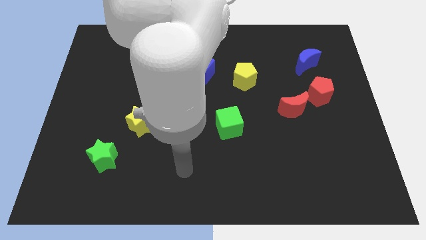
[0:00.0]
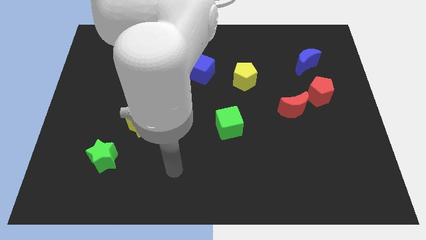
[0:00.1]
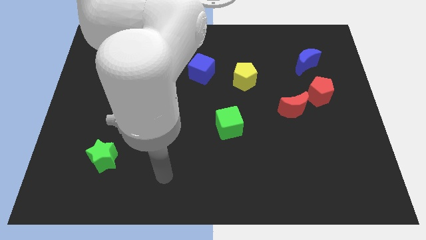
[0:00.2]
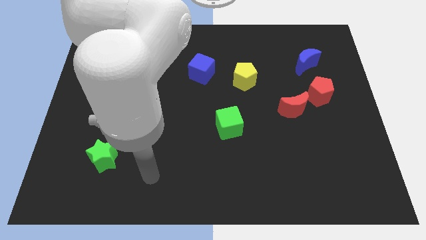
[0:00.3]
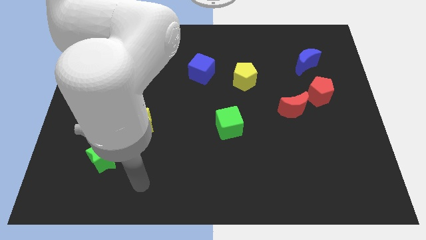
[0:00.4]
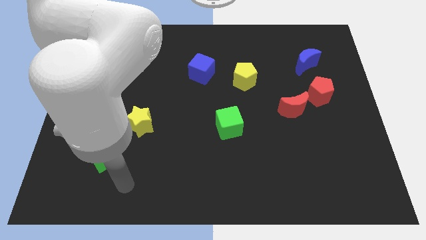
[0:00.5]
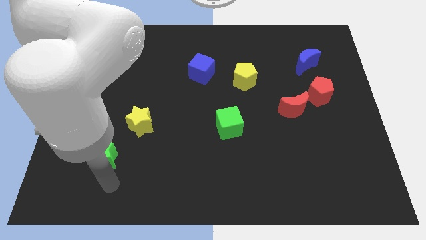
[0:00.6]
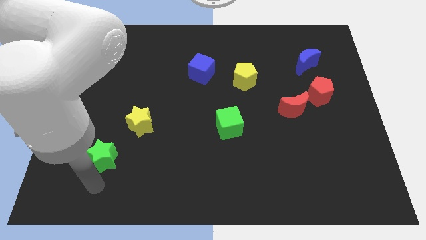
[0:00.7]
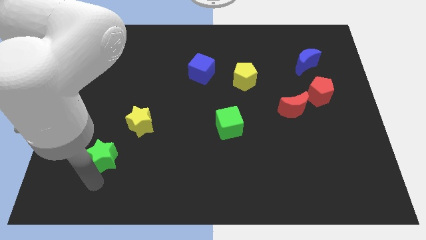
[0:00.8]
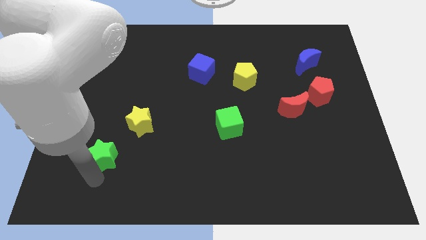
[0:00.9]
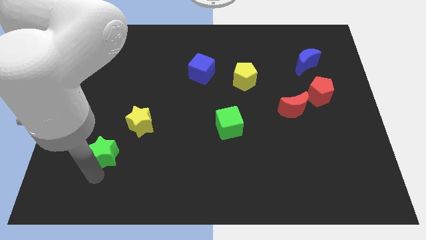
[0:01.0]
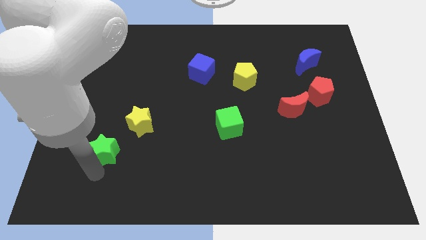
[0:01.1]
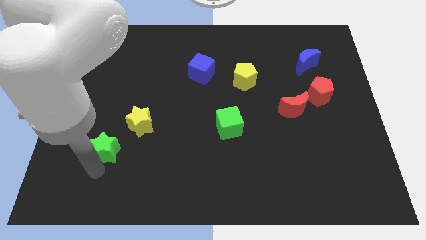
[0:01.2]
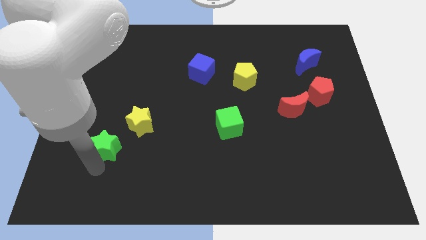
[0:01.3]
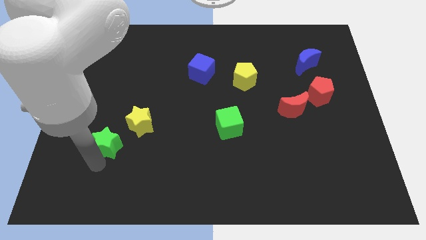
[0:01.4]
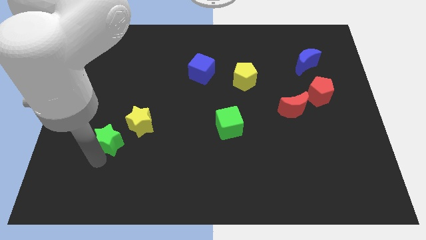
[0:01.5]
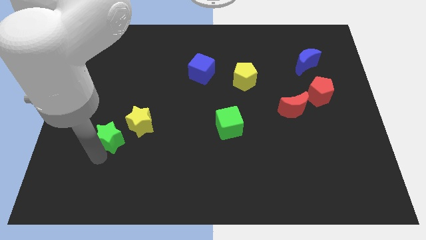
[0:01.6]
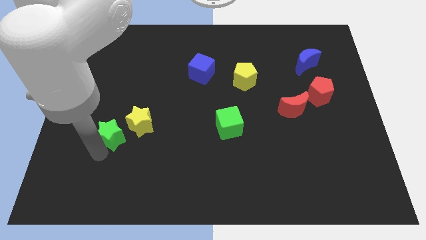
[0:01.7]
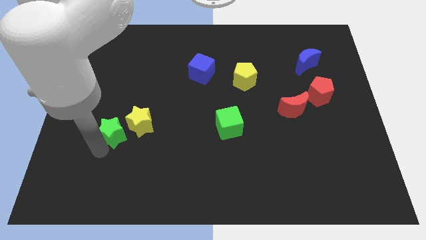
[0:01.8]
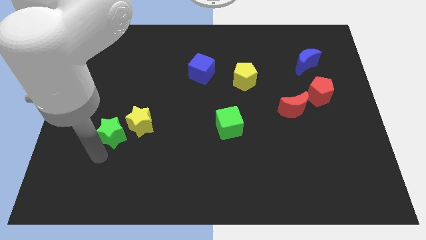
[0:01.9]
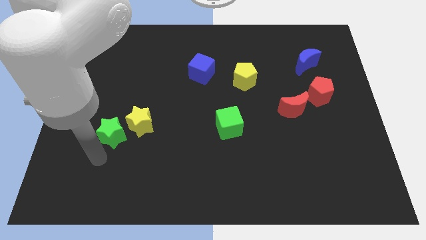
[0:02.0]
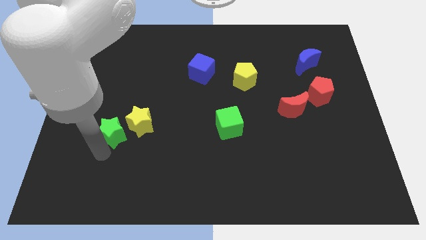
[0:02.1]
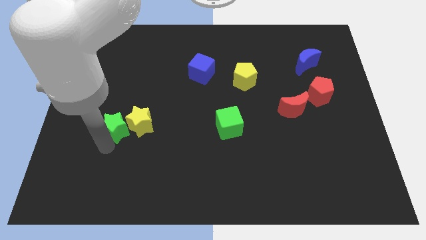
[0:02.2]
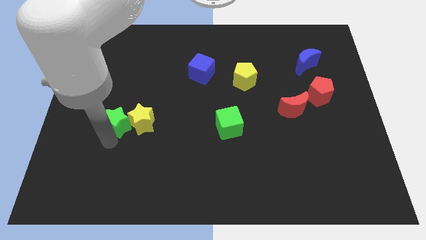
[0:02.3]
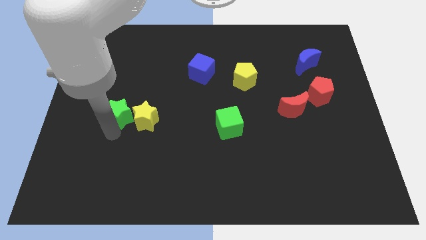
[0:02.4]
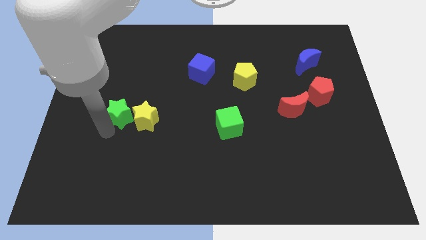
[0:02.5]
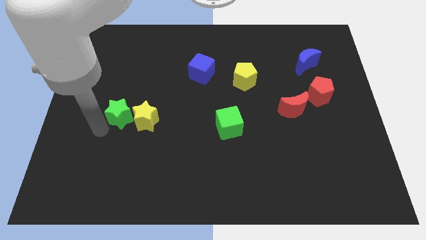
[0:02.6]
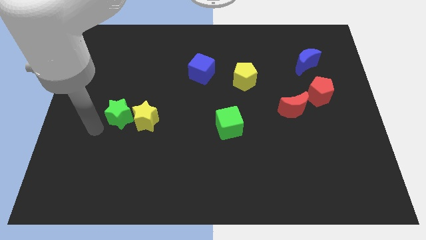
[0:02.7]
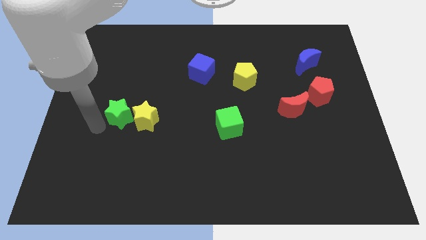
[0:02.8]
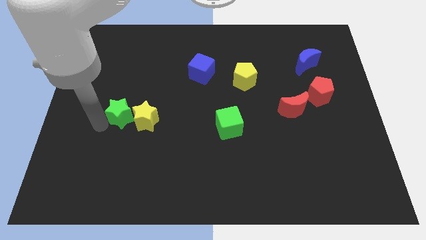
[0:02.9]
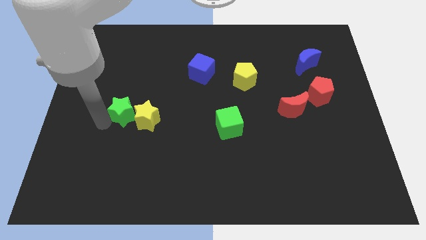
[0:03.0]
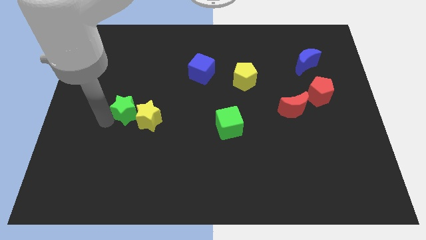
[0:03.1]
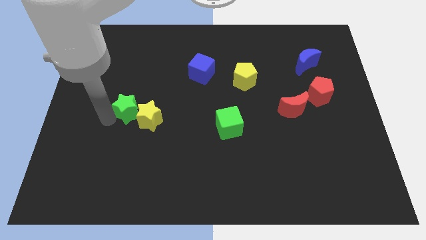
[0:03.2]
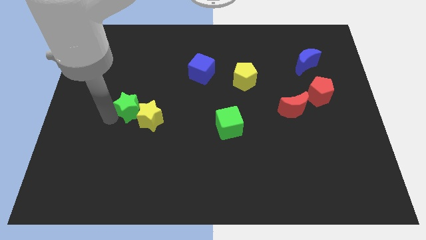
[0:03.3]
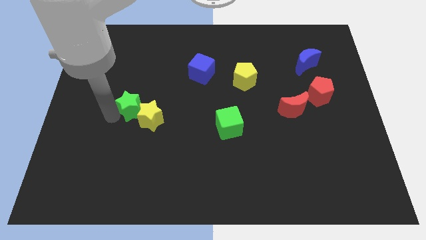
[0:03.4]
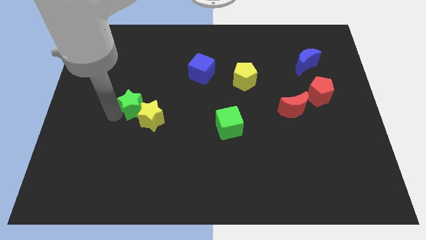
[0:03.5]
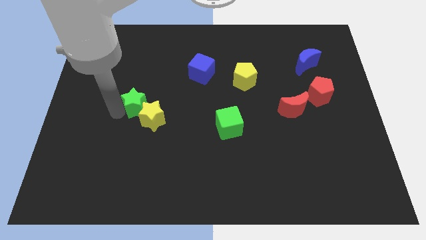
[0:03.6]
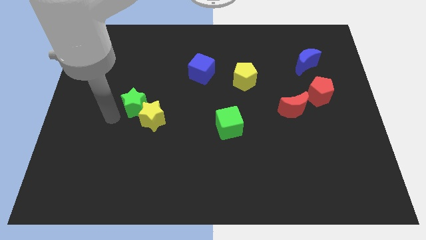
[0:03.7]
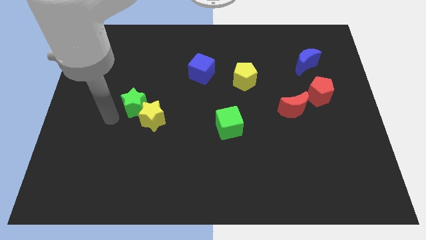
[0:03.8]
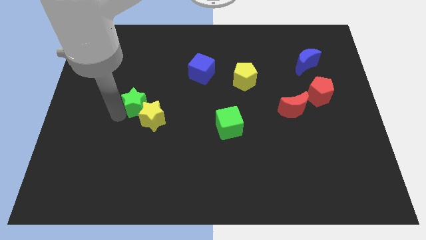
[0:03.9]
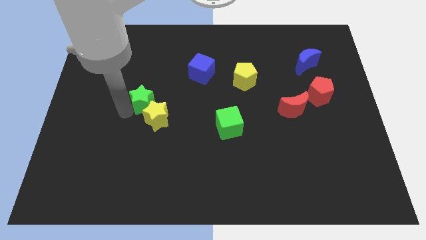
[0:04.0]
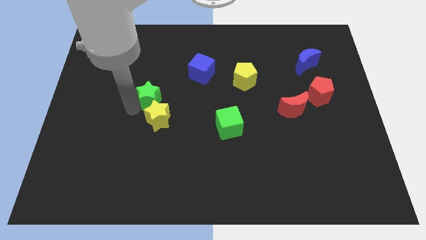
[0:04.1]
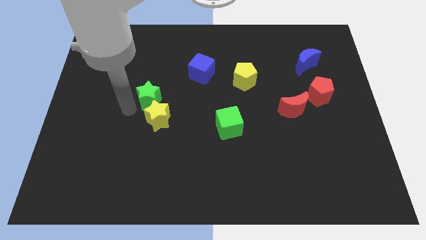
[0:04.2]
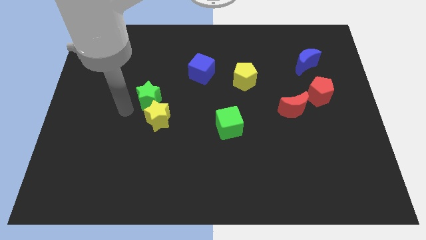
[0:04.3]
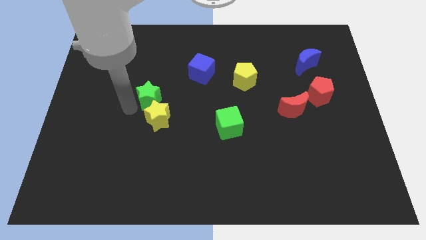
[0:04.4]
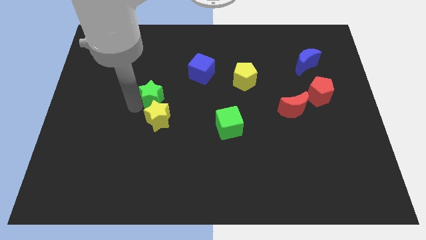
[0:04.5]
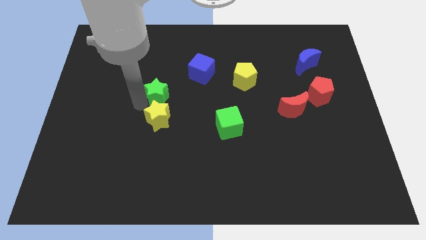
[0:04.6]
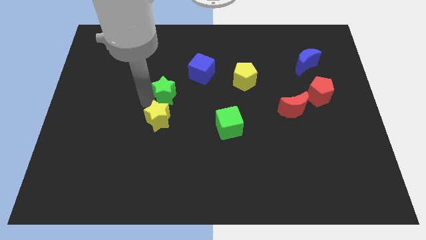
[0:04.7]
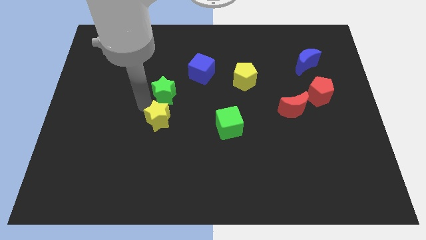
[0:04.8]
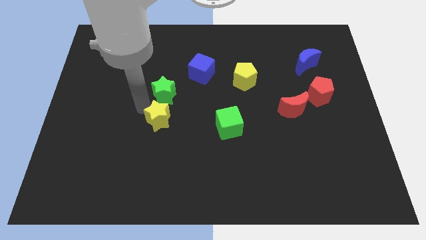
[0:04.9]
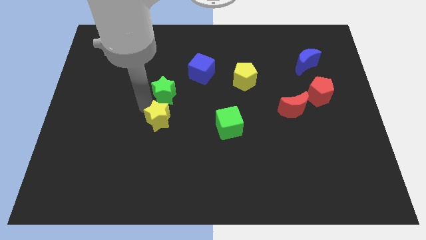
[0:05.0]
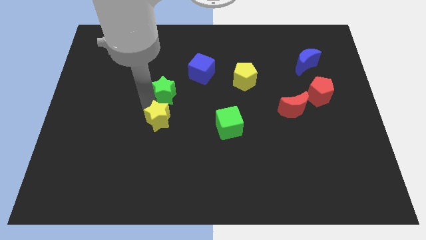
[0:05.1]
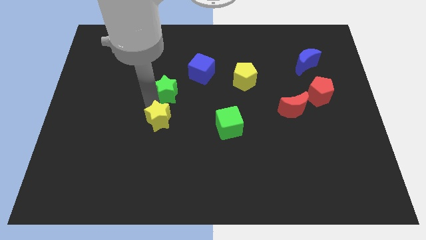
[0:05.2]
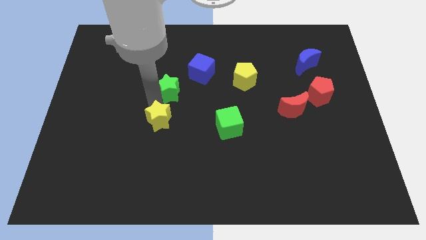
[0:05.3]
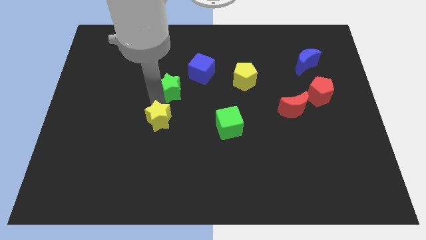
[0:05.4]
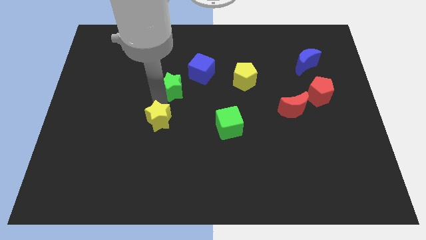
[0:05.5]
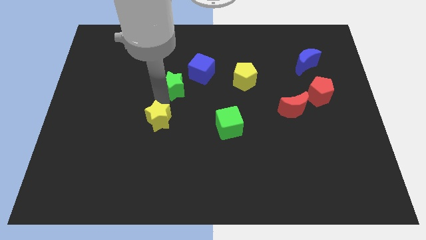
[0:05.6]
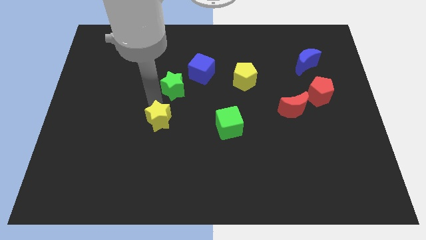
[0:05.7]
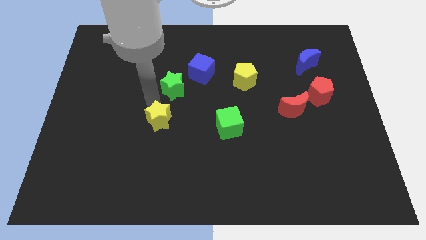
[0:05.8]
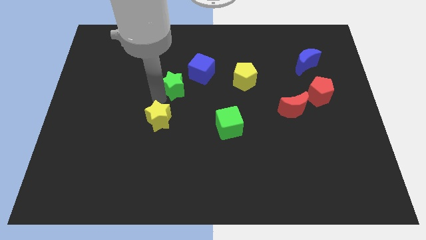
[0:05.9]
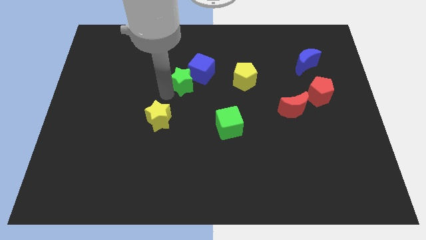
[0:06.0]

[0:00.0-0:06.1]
move the green star to the blue cube

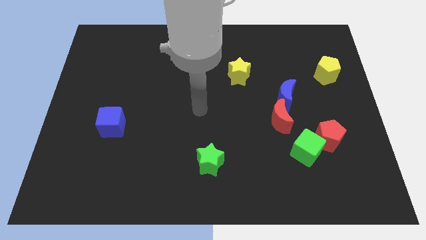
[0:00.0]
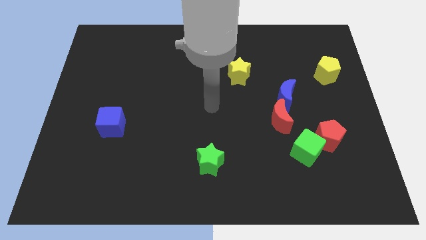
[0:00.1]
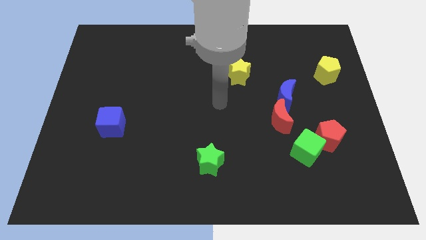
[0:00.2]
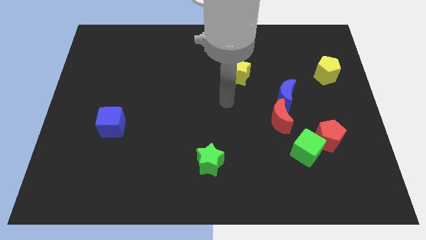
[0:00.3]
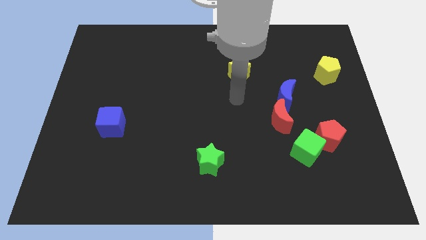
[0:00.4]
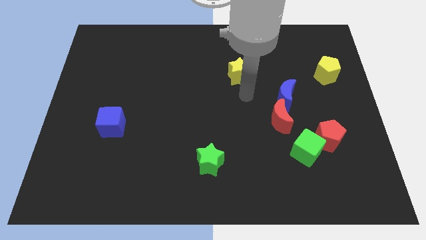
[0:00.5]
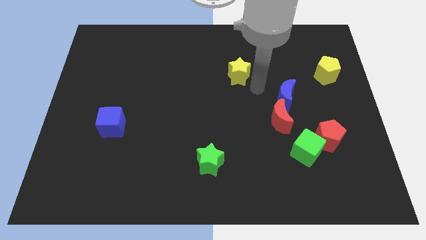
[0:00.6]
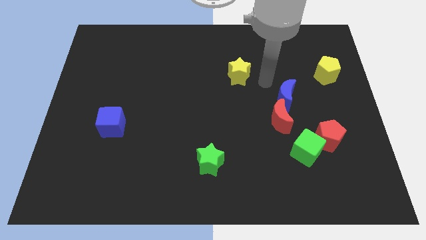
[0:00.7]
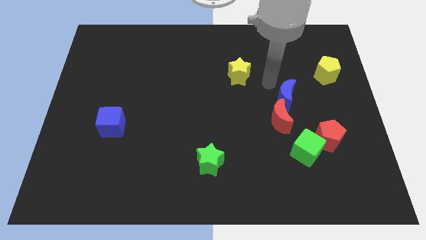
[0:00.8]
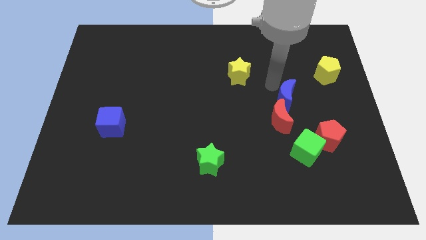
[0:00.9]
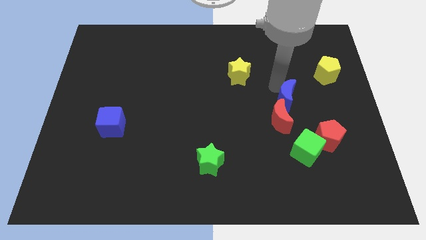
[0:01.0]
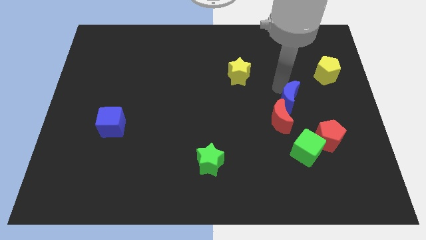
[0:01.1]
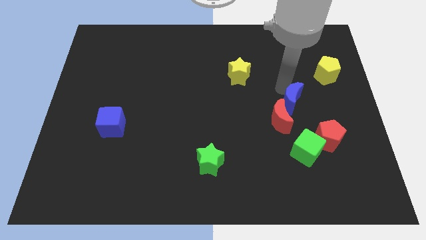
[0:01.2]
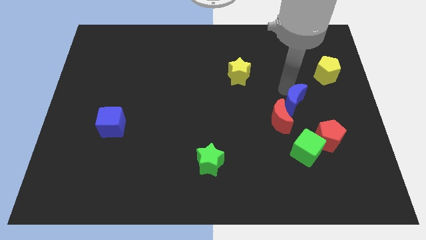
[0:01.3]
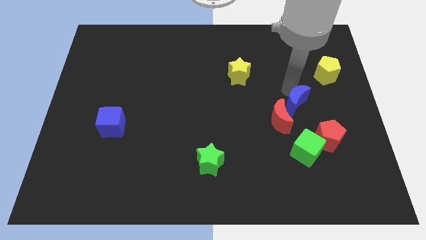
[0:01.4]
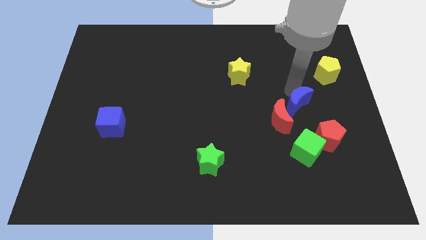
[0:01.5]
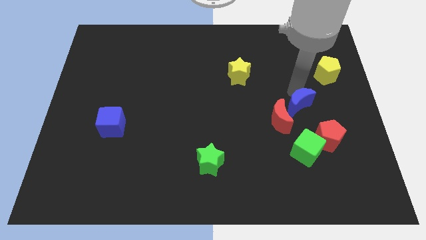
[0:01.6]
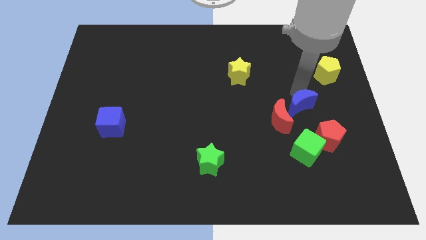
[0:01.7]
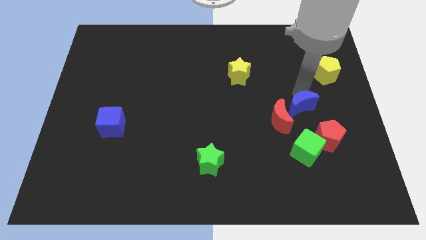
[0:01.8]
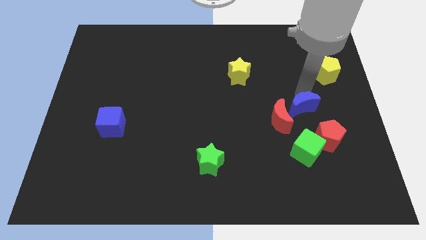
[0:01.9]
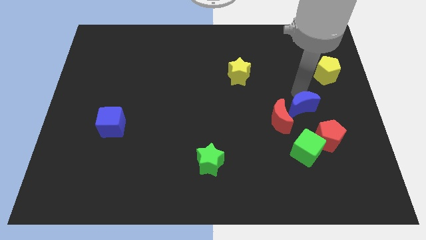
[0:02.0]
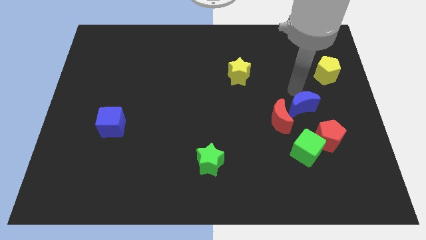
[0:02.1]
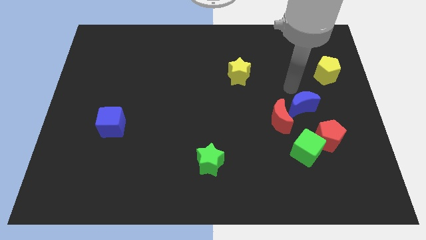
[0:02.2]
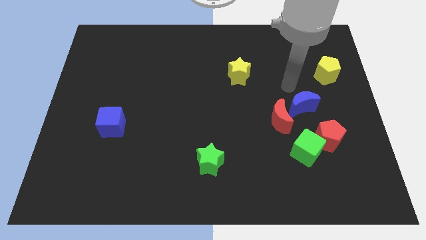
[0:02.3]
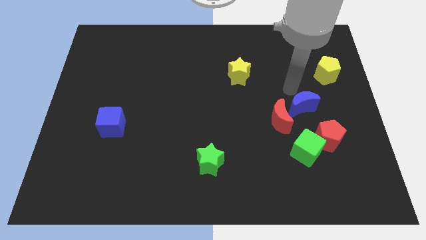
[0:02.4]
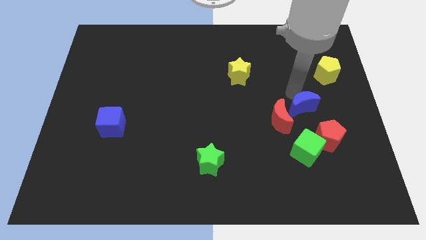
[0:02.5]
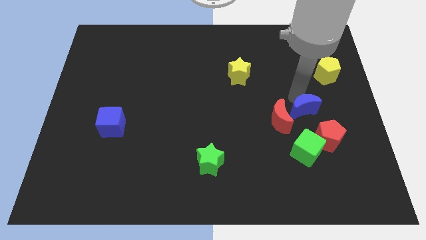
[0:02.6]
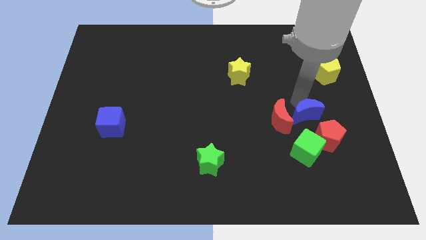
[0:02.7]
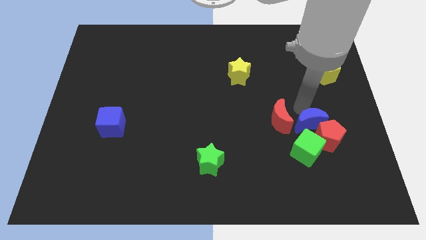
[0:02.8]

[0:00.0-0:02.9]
move the blue moon close to the red pentagon
